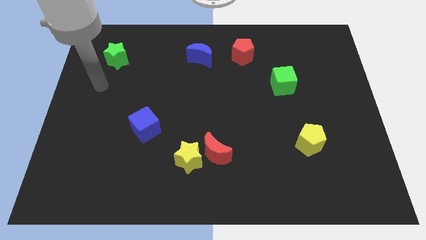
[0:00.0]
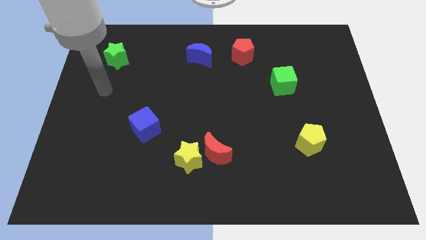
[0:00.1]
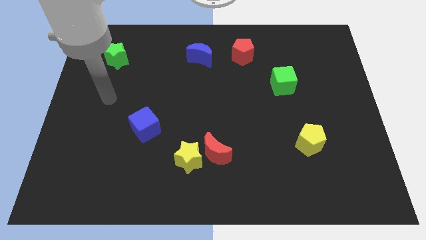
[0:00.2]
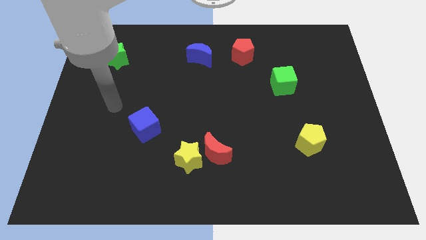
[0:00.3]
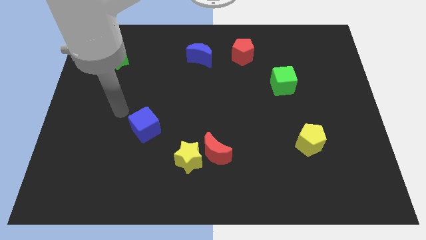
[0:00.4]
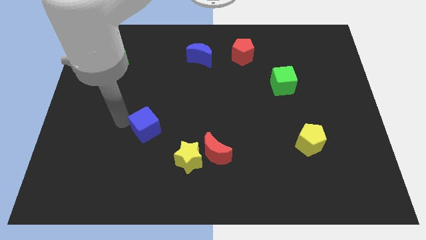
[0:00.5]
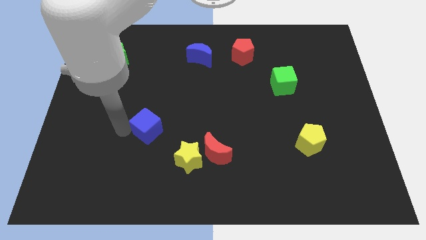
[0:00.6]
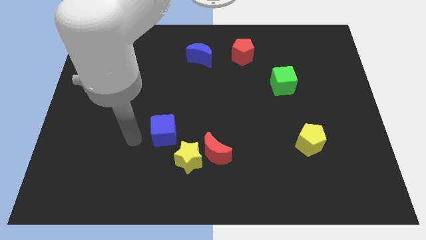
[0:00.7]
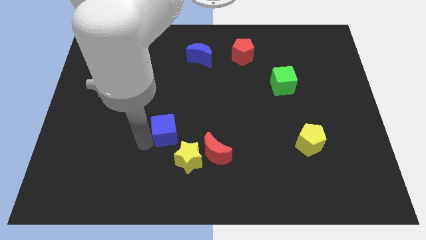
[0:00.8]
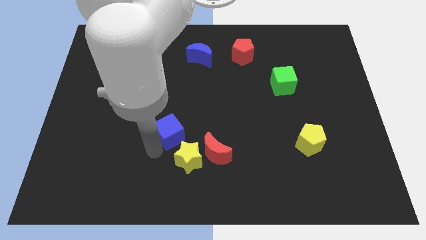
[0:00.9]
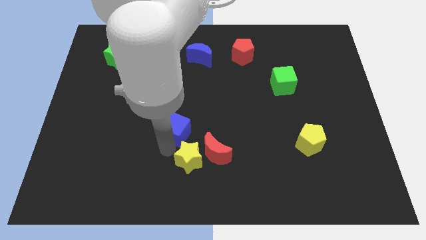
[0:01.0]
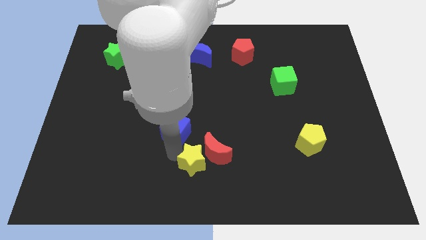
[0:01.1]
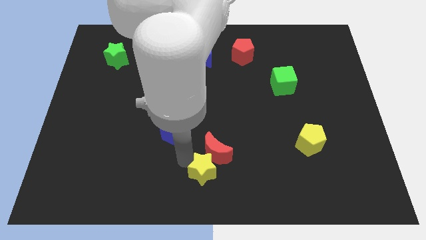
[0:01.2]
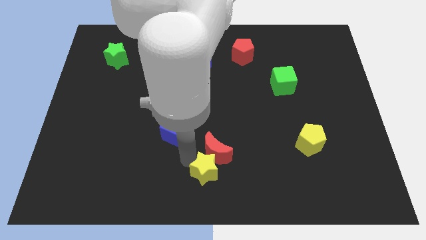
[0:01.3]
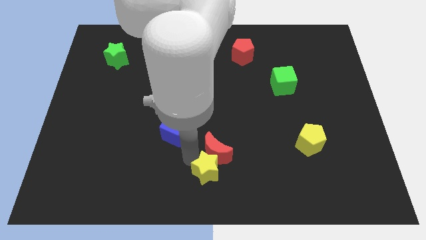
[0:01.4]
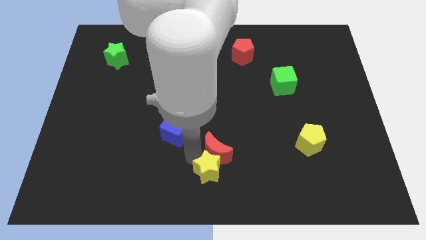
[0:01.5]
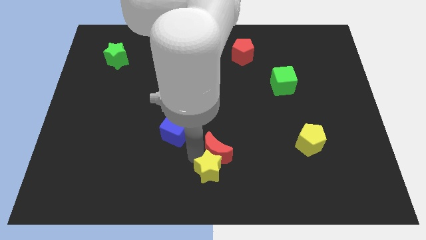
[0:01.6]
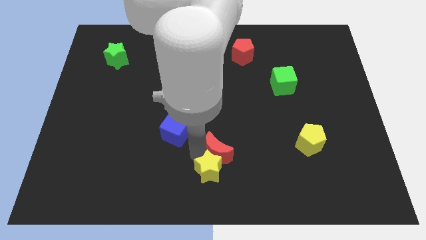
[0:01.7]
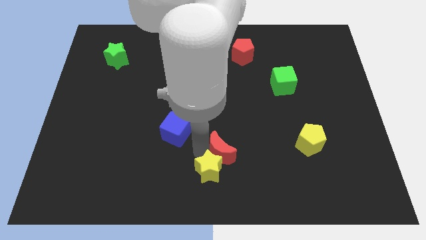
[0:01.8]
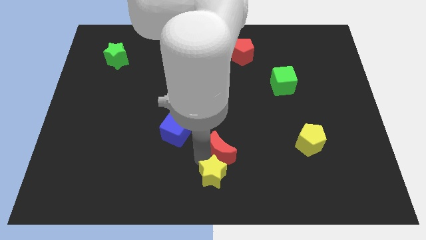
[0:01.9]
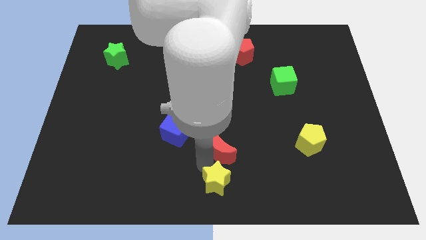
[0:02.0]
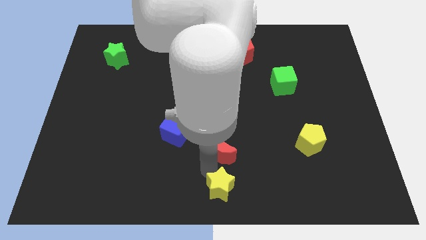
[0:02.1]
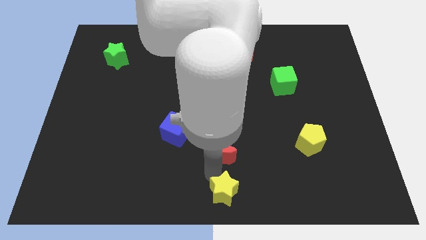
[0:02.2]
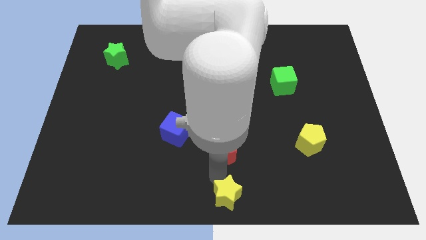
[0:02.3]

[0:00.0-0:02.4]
move the red moon away from the yellow star

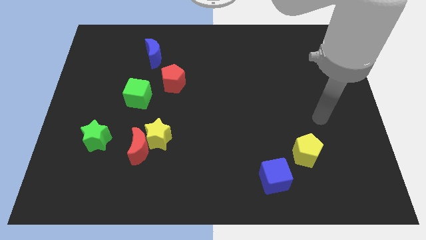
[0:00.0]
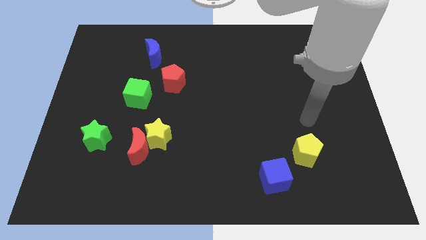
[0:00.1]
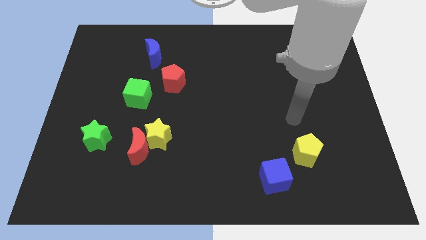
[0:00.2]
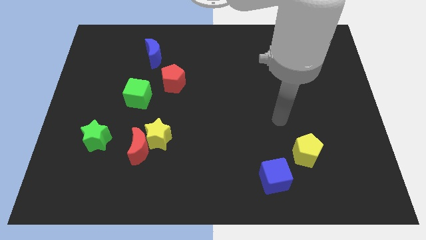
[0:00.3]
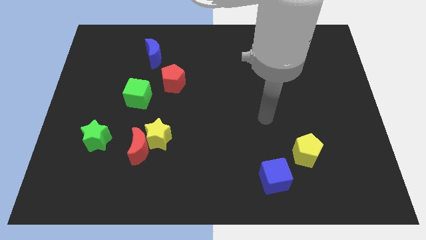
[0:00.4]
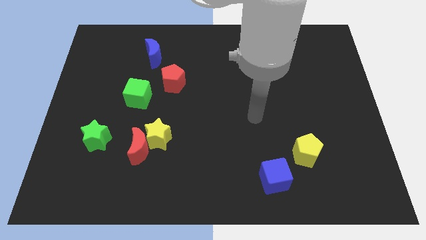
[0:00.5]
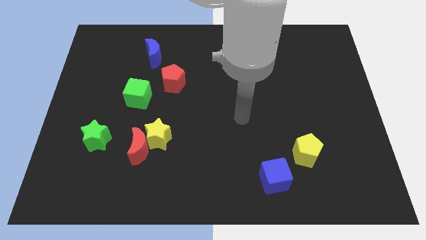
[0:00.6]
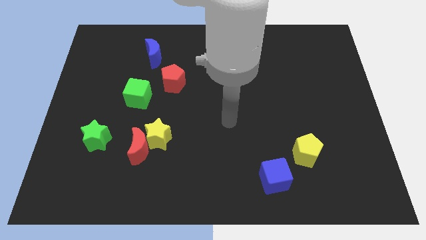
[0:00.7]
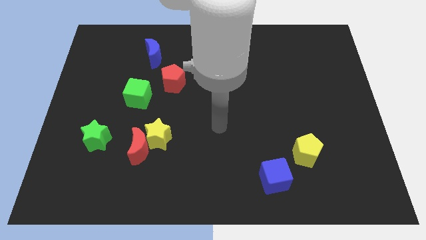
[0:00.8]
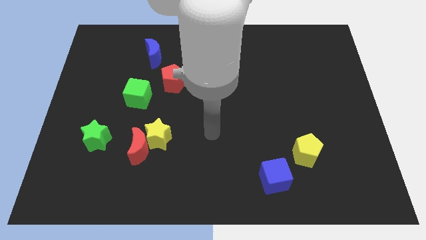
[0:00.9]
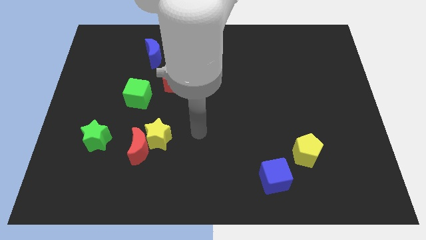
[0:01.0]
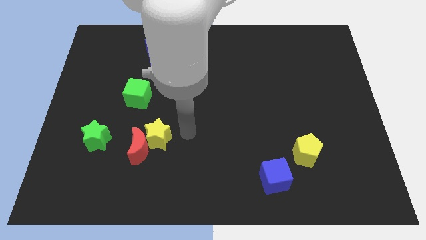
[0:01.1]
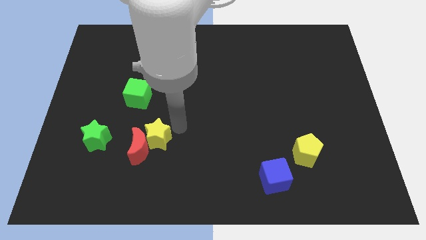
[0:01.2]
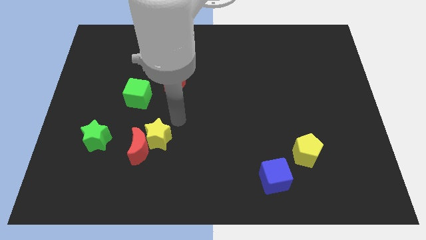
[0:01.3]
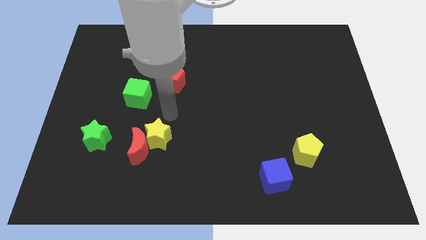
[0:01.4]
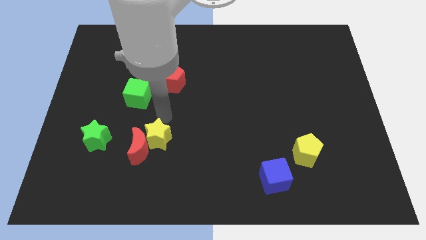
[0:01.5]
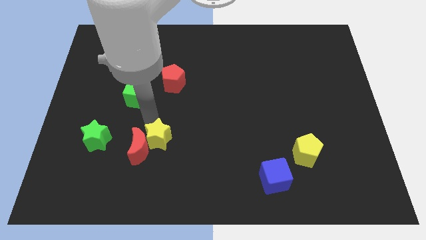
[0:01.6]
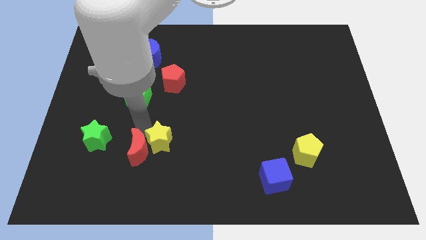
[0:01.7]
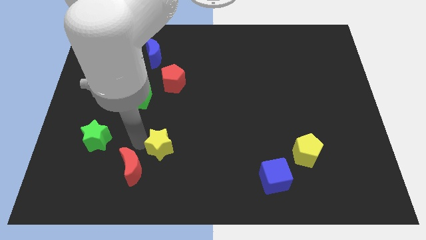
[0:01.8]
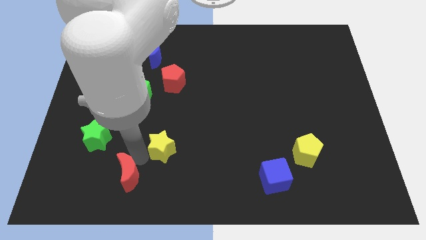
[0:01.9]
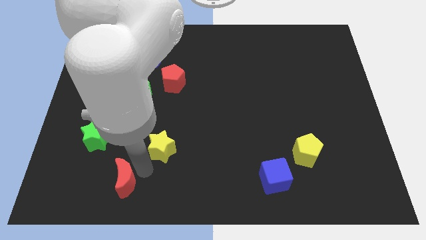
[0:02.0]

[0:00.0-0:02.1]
move the yellow star away from the red moon

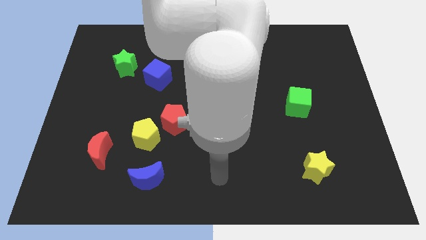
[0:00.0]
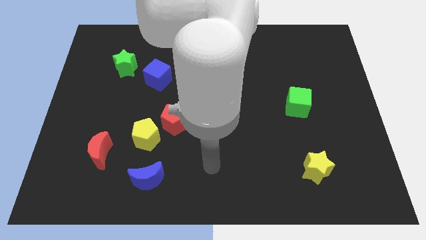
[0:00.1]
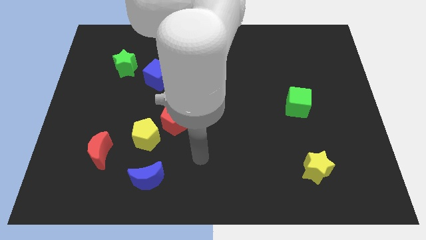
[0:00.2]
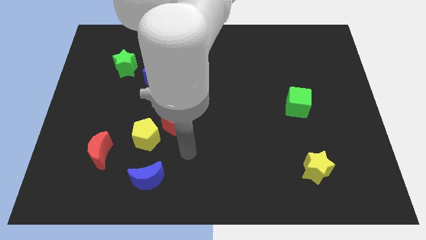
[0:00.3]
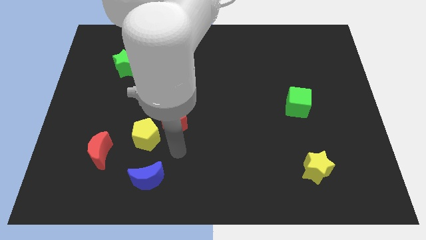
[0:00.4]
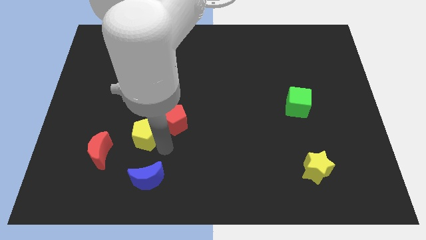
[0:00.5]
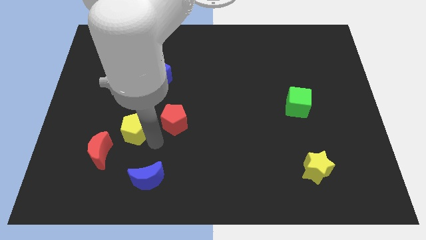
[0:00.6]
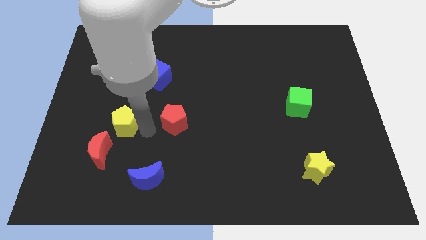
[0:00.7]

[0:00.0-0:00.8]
move the red pentagon away from the yellow pentagon

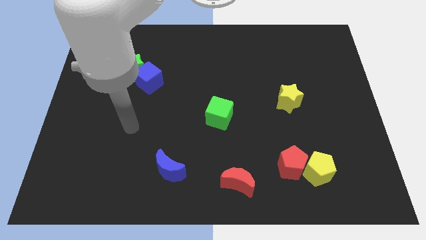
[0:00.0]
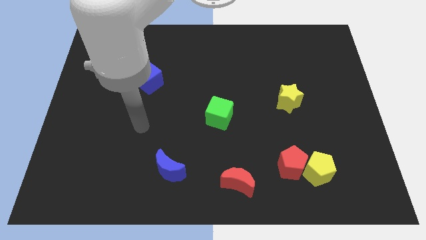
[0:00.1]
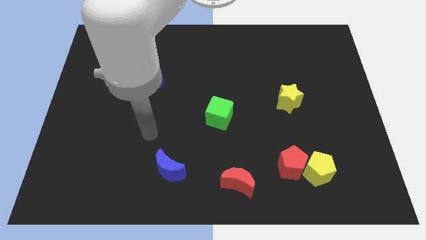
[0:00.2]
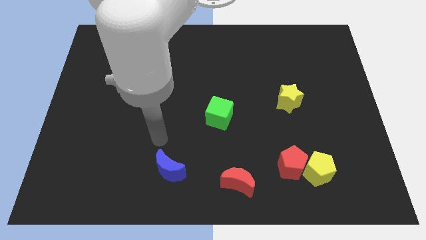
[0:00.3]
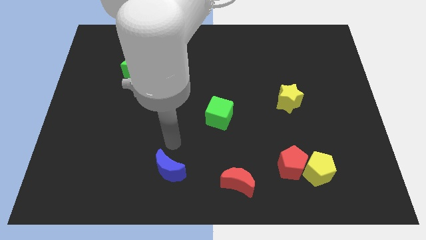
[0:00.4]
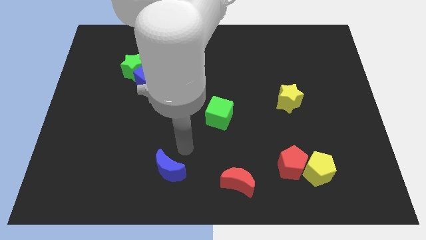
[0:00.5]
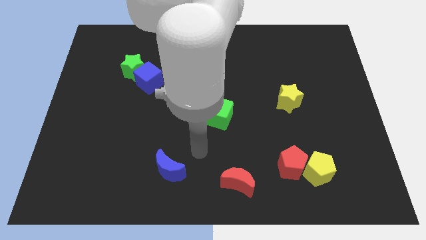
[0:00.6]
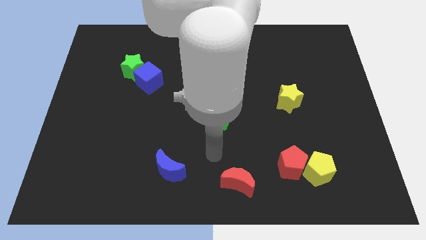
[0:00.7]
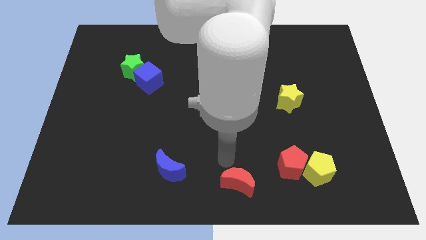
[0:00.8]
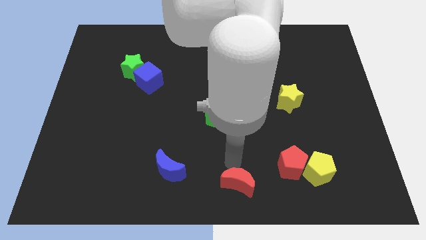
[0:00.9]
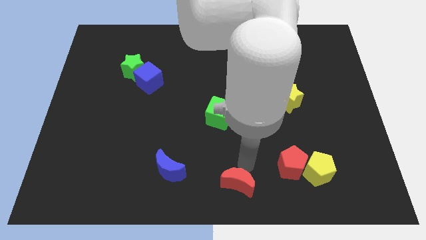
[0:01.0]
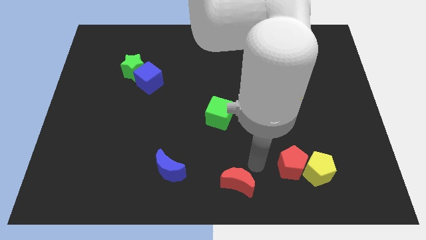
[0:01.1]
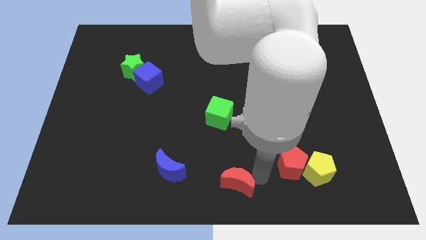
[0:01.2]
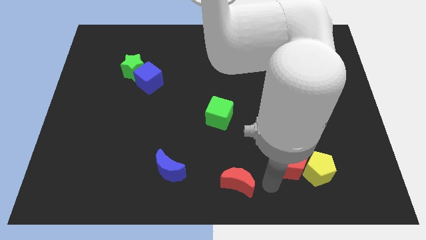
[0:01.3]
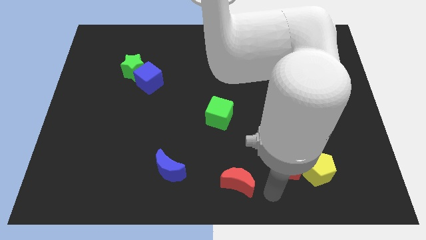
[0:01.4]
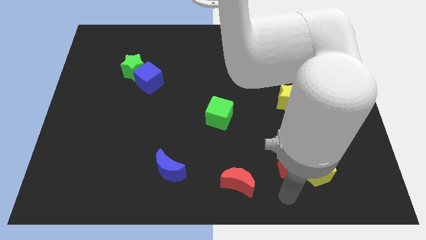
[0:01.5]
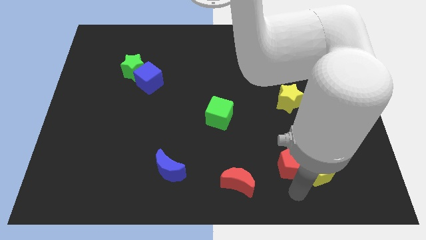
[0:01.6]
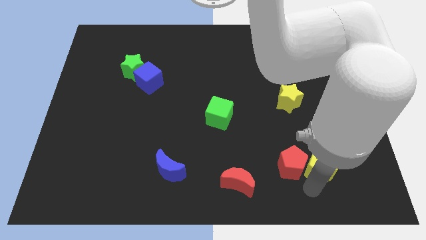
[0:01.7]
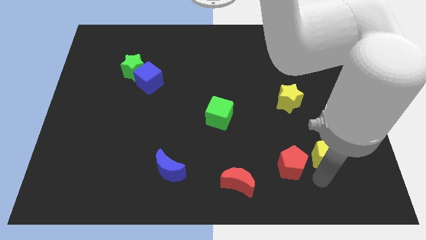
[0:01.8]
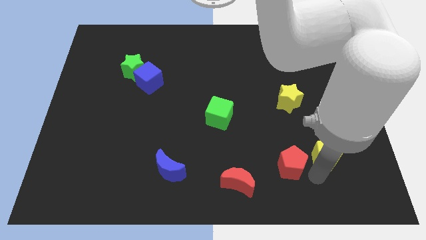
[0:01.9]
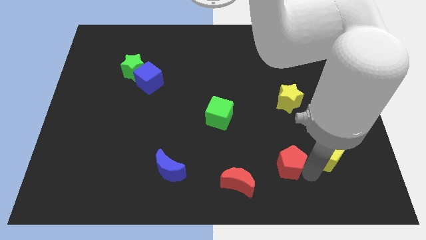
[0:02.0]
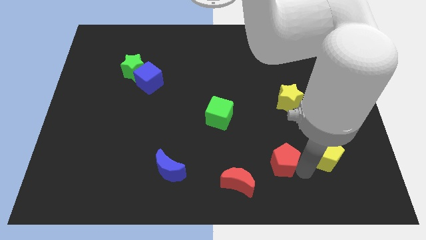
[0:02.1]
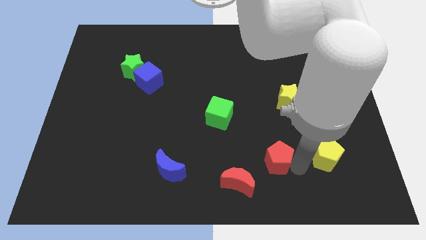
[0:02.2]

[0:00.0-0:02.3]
pull the red pentagon apart from the yellow pentagon

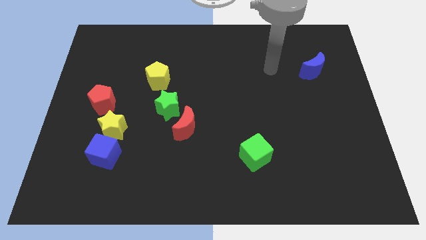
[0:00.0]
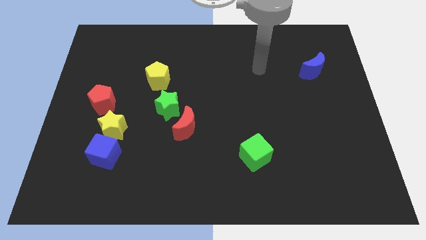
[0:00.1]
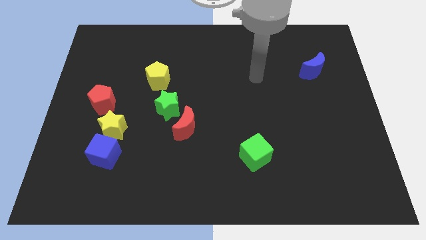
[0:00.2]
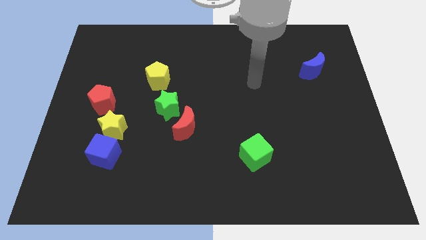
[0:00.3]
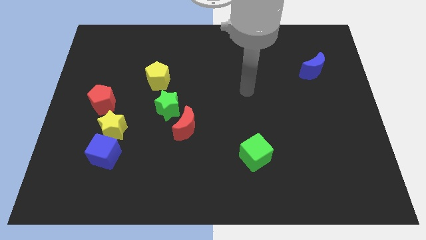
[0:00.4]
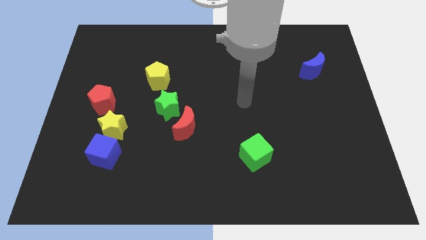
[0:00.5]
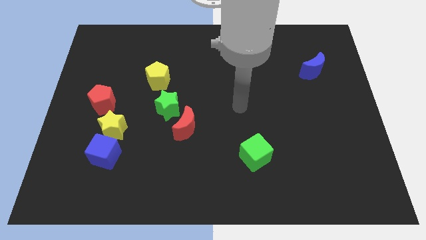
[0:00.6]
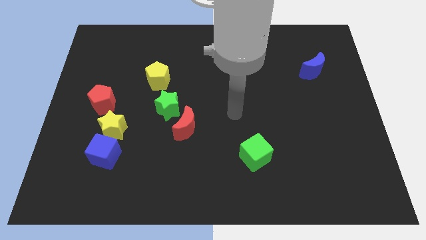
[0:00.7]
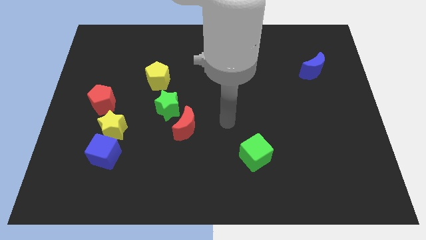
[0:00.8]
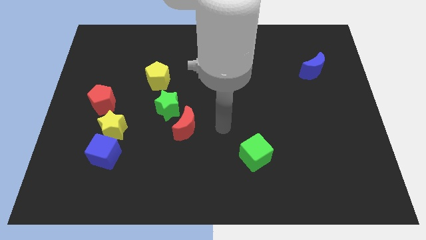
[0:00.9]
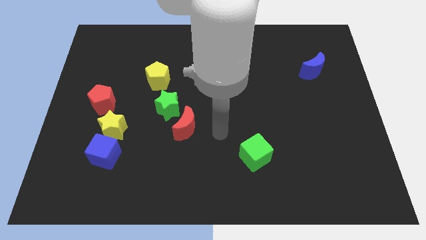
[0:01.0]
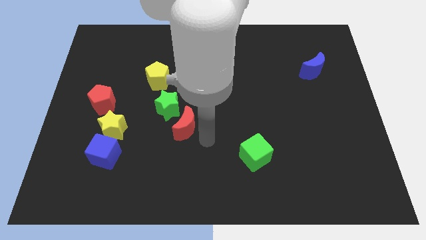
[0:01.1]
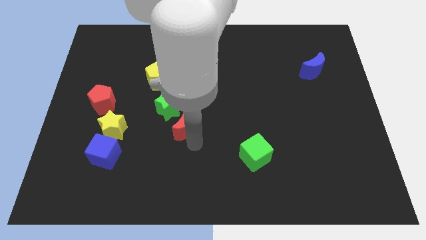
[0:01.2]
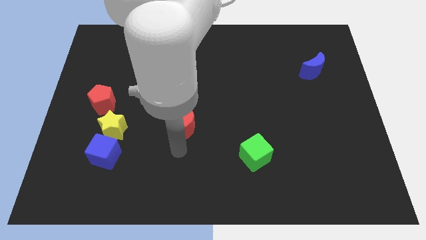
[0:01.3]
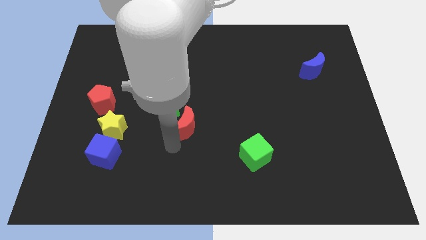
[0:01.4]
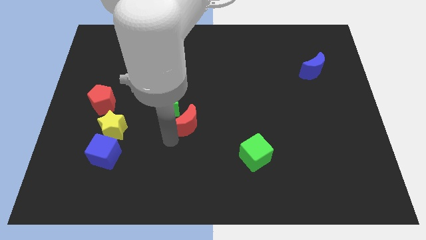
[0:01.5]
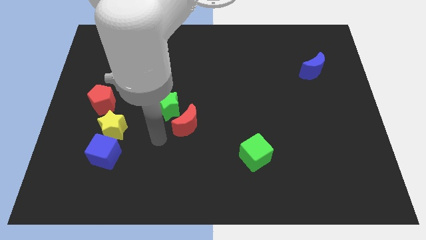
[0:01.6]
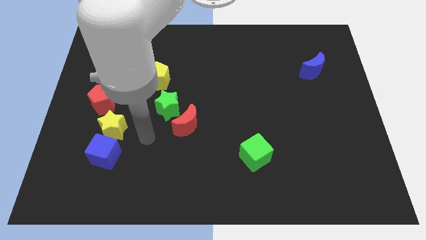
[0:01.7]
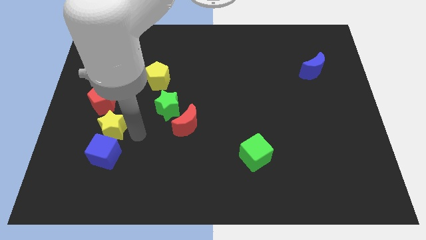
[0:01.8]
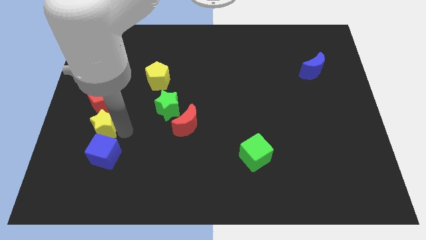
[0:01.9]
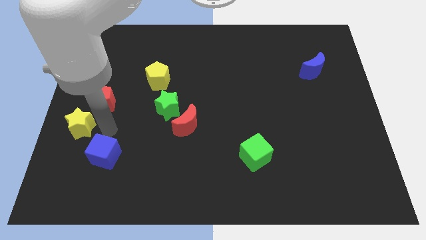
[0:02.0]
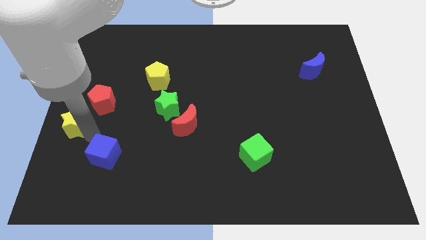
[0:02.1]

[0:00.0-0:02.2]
move the blue cube away from the yellow star
